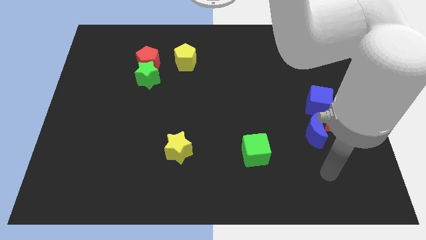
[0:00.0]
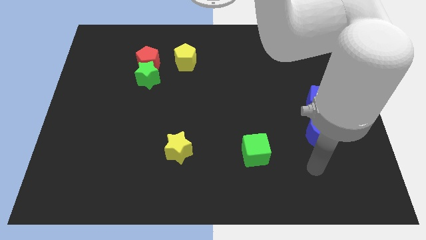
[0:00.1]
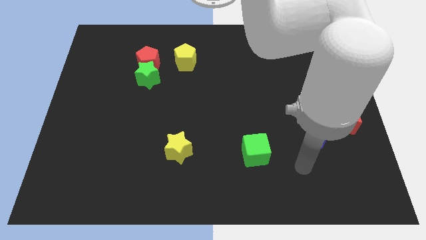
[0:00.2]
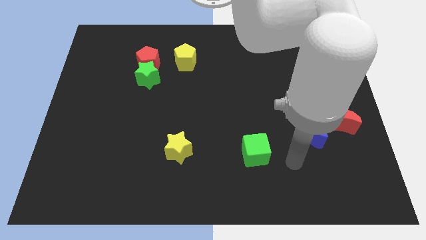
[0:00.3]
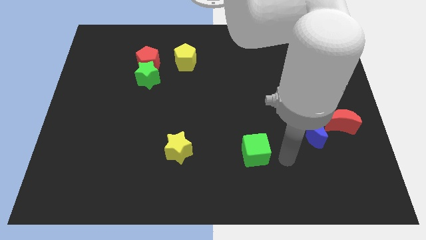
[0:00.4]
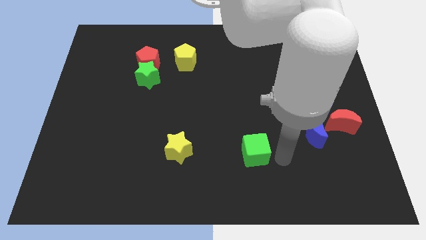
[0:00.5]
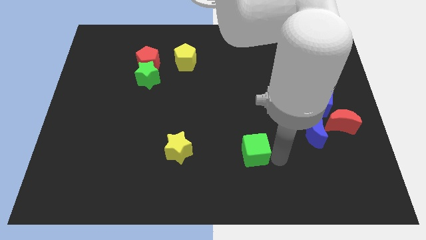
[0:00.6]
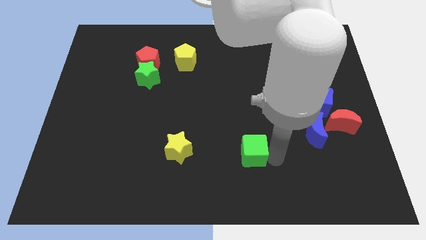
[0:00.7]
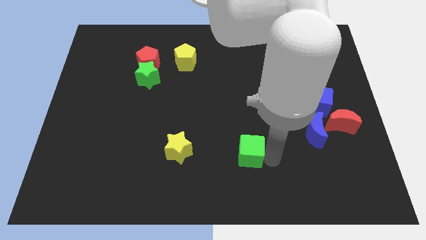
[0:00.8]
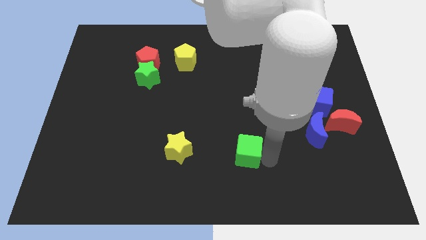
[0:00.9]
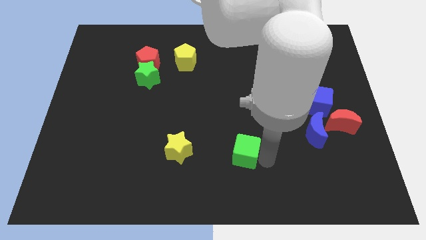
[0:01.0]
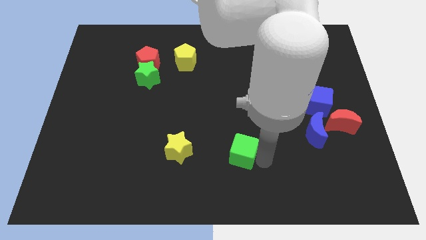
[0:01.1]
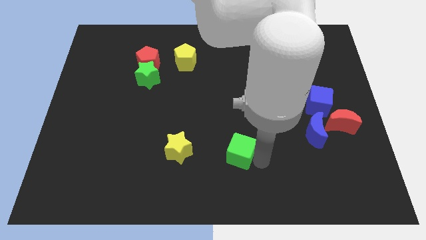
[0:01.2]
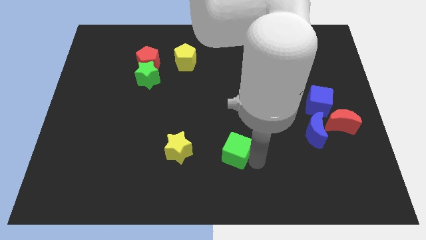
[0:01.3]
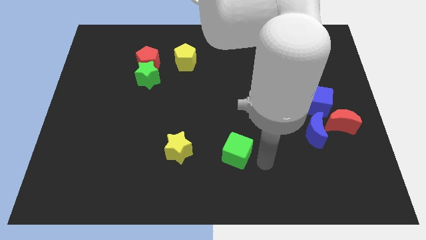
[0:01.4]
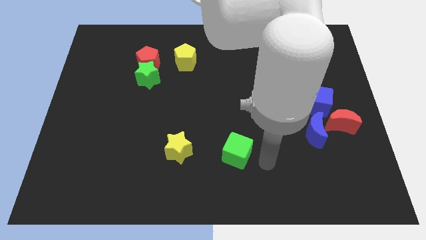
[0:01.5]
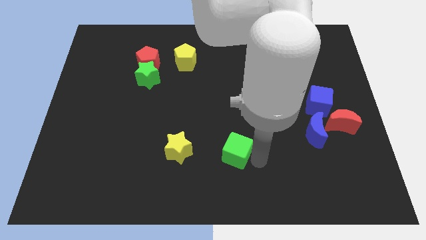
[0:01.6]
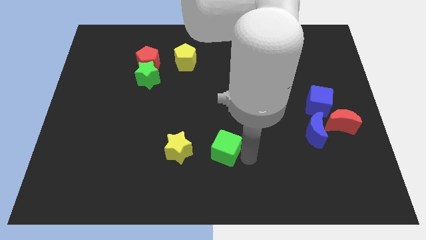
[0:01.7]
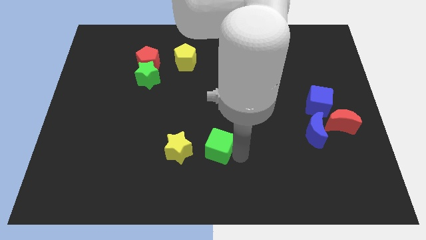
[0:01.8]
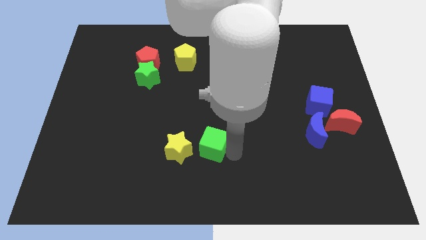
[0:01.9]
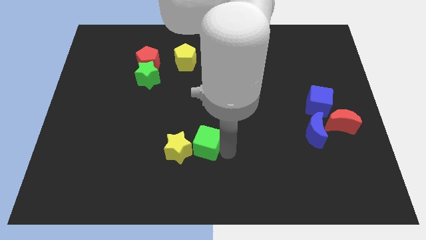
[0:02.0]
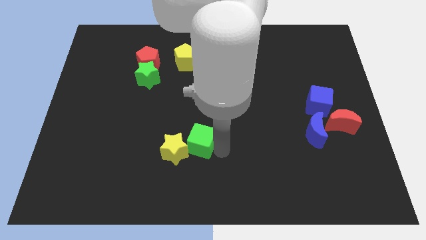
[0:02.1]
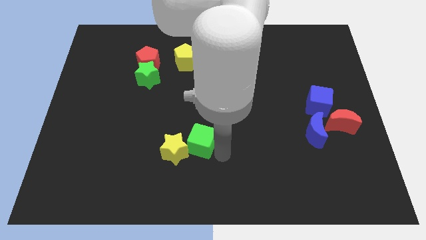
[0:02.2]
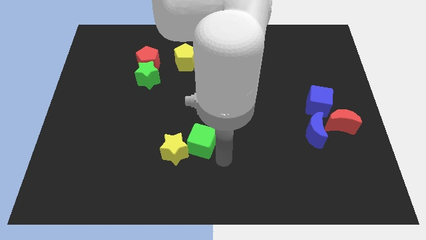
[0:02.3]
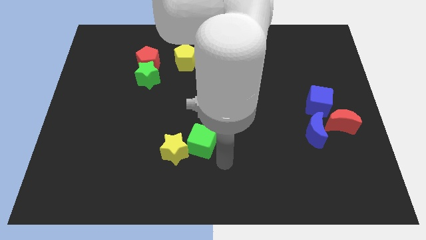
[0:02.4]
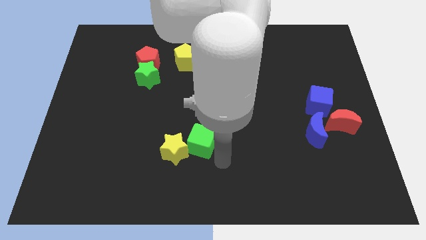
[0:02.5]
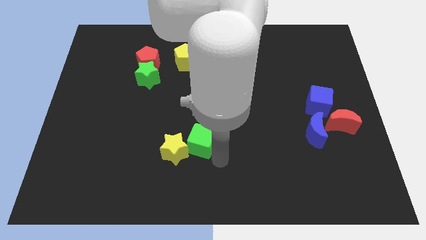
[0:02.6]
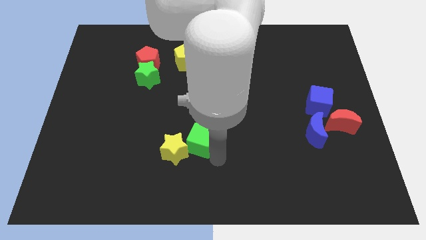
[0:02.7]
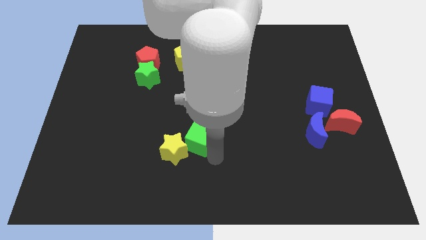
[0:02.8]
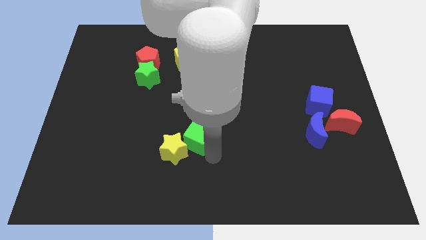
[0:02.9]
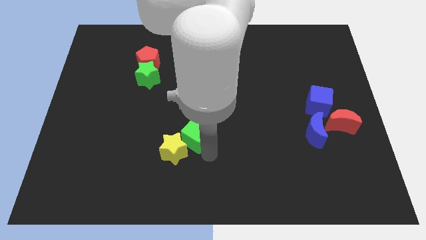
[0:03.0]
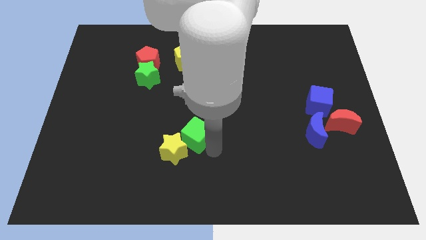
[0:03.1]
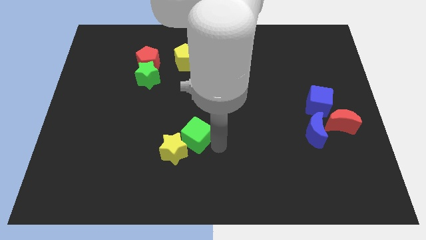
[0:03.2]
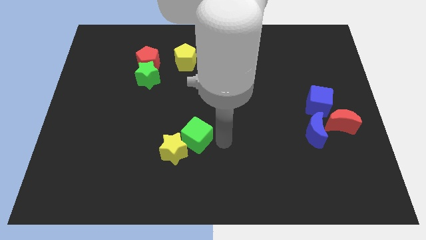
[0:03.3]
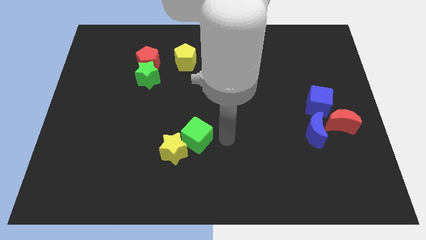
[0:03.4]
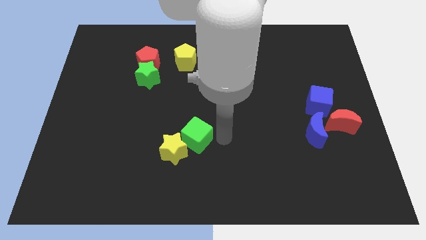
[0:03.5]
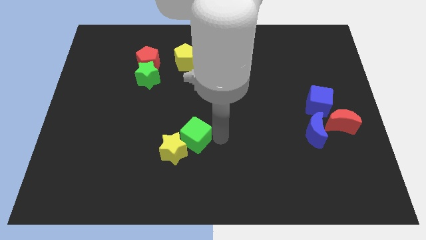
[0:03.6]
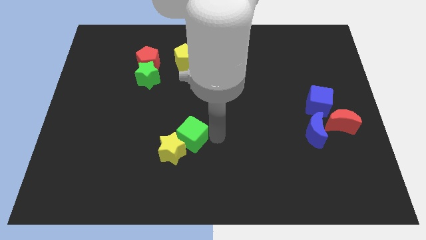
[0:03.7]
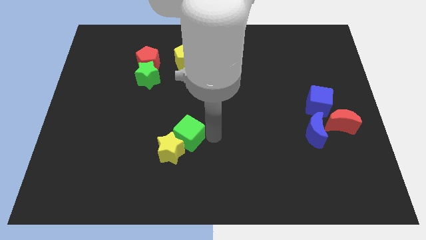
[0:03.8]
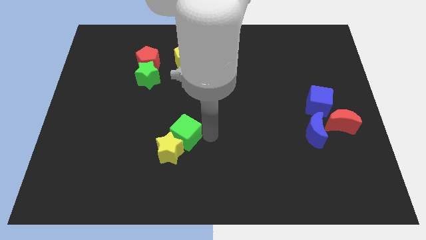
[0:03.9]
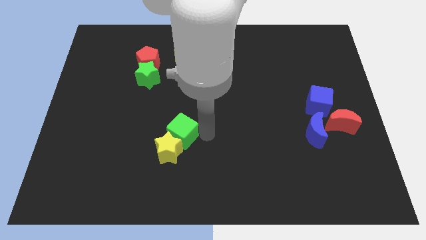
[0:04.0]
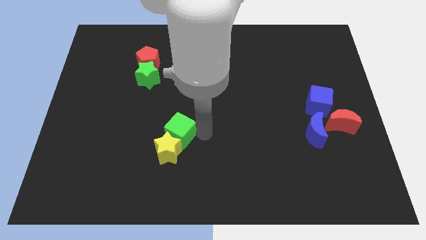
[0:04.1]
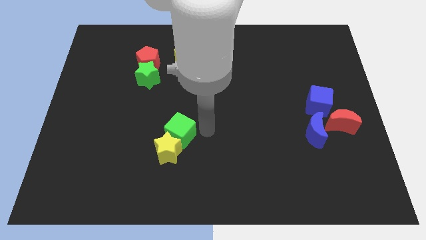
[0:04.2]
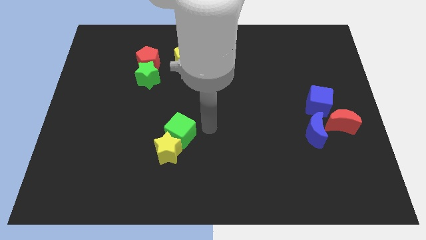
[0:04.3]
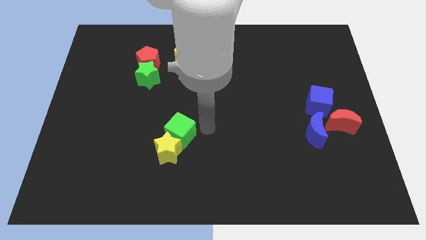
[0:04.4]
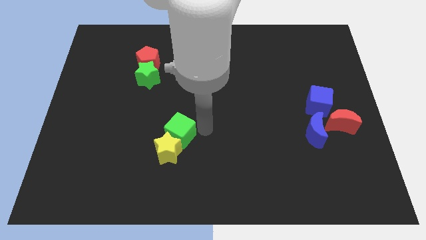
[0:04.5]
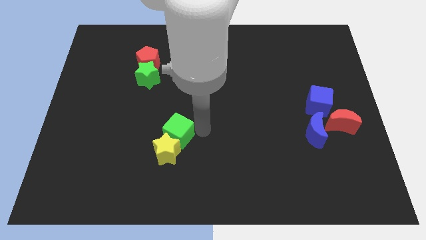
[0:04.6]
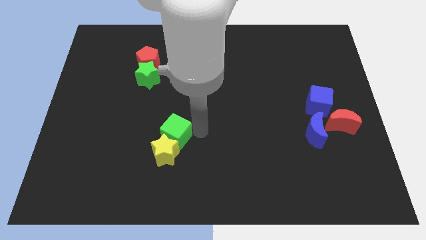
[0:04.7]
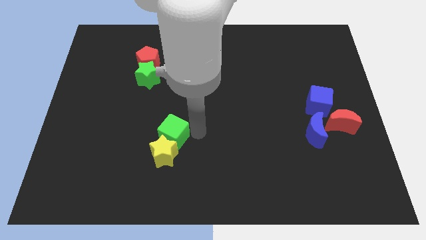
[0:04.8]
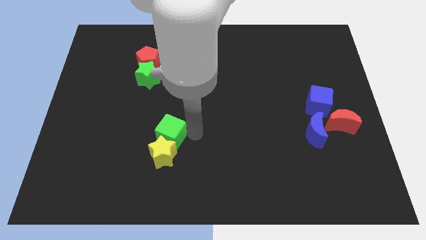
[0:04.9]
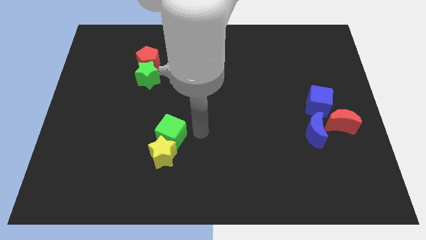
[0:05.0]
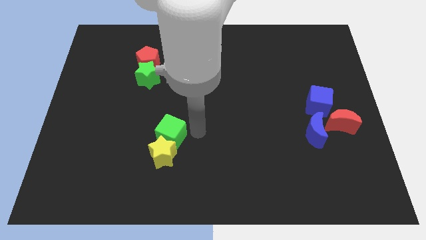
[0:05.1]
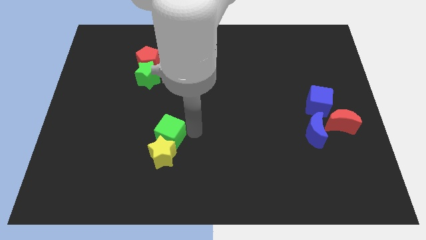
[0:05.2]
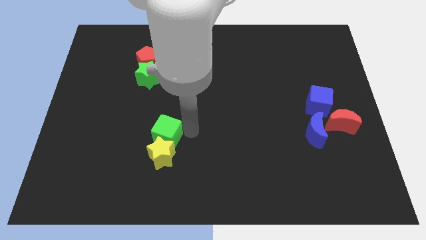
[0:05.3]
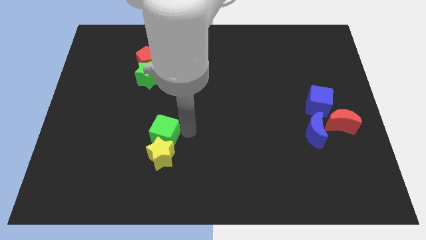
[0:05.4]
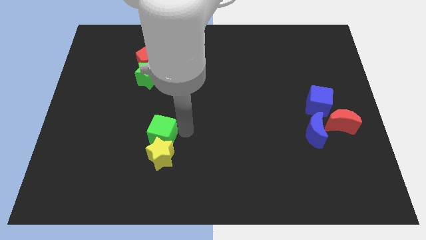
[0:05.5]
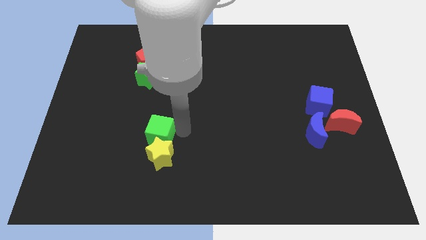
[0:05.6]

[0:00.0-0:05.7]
push the green cube left

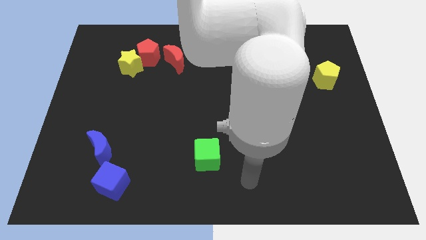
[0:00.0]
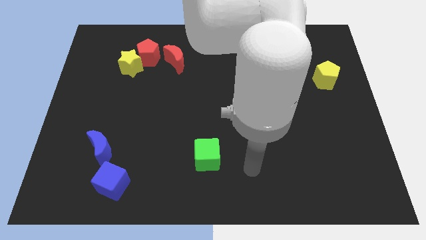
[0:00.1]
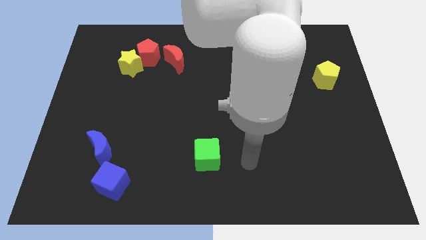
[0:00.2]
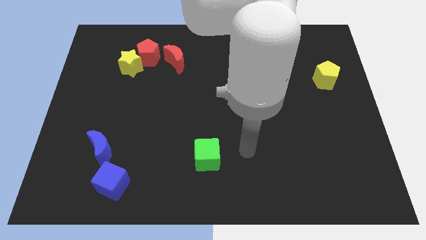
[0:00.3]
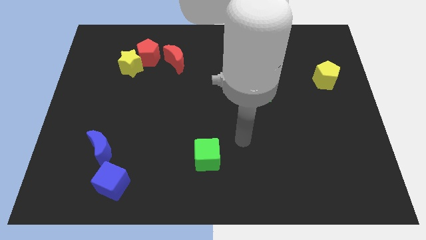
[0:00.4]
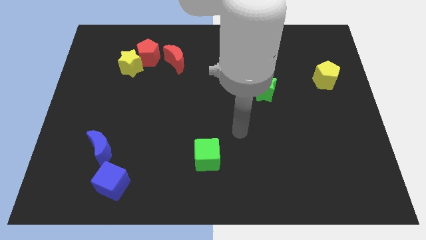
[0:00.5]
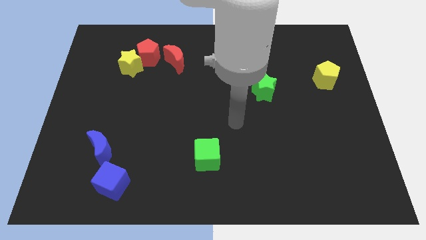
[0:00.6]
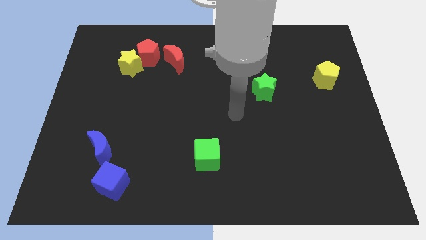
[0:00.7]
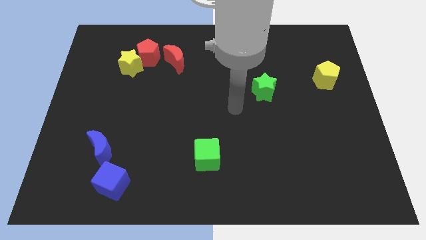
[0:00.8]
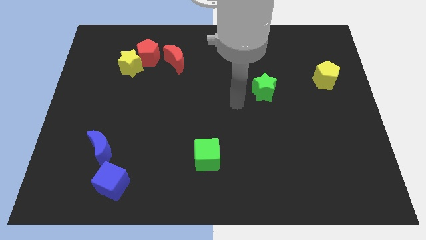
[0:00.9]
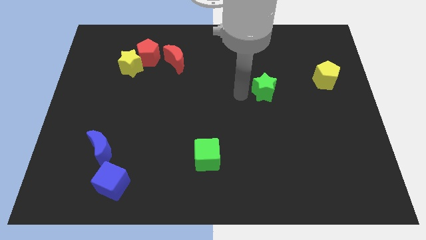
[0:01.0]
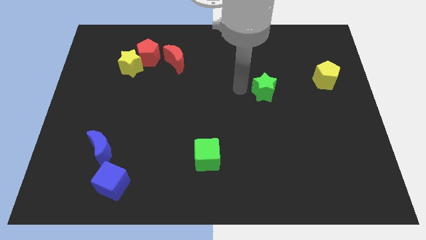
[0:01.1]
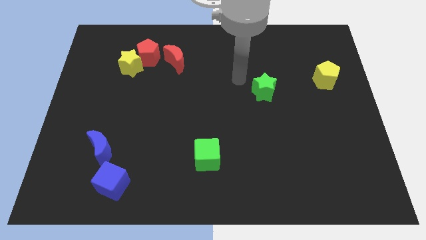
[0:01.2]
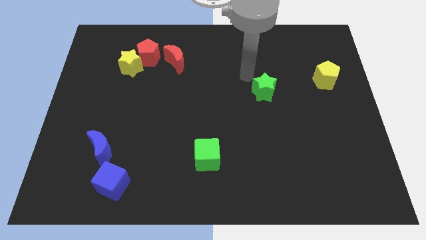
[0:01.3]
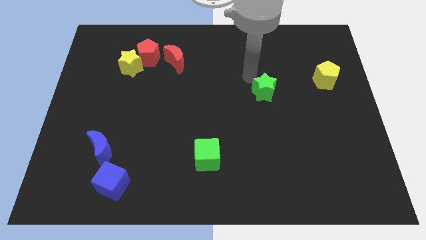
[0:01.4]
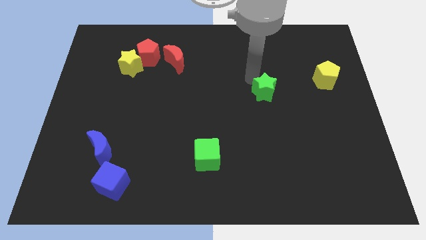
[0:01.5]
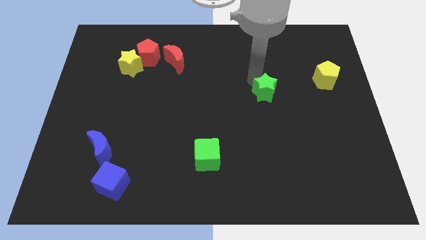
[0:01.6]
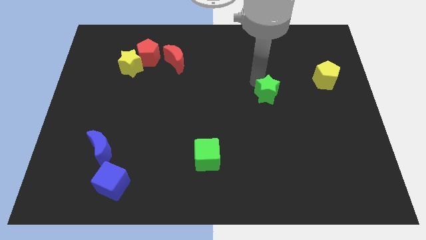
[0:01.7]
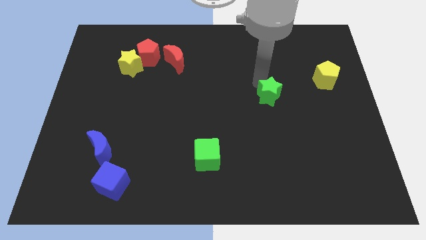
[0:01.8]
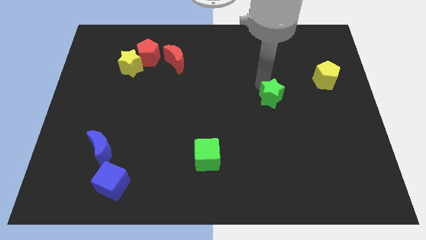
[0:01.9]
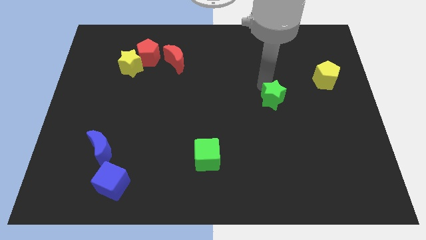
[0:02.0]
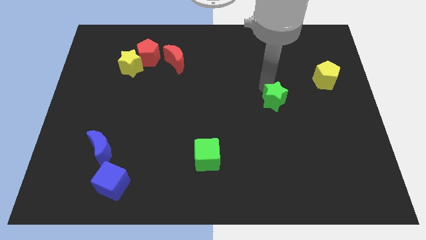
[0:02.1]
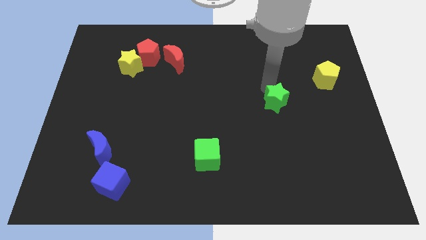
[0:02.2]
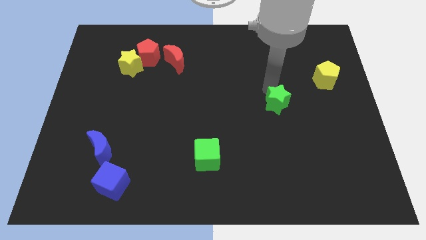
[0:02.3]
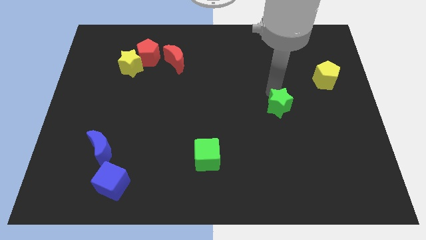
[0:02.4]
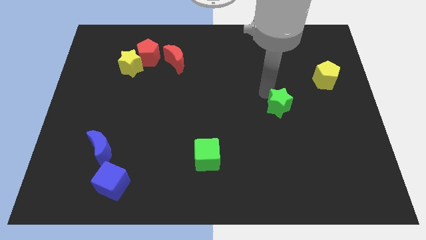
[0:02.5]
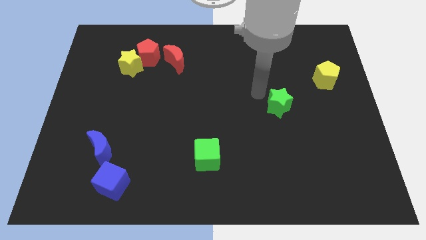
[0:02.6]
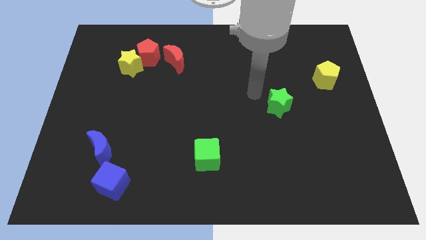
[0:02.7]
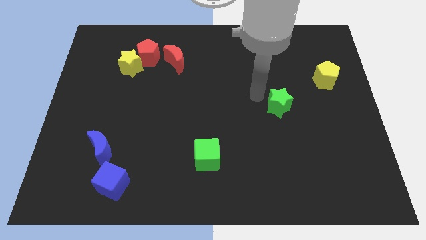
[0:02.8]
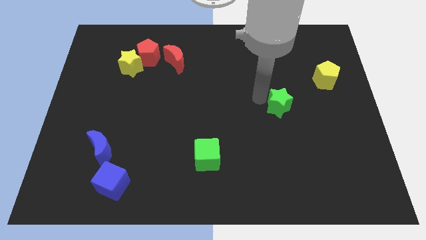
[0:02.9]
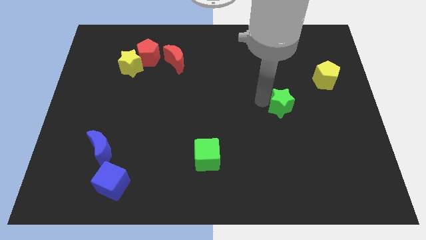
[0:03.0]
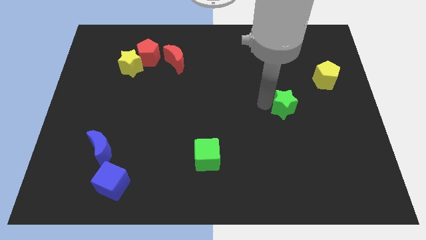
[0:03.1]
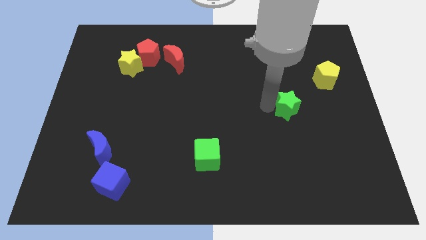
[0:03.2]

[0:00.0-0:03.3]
slightly slide the green star down and then right
